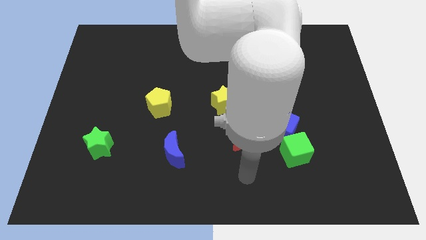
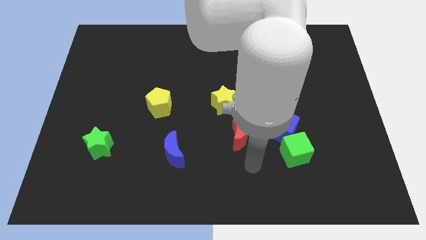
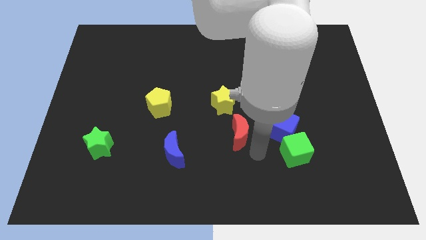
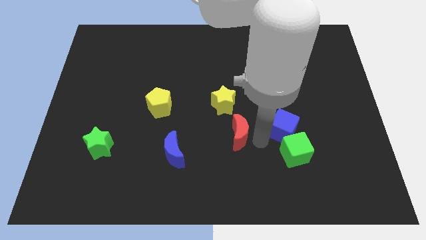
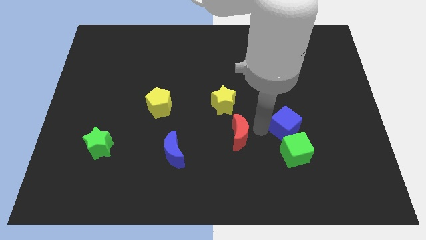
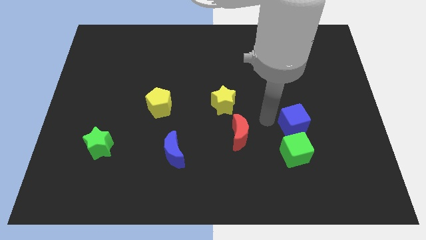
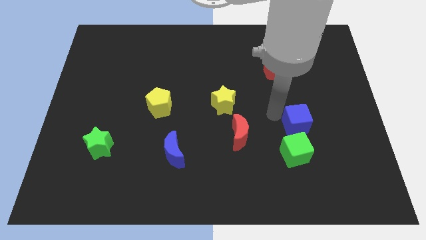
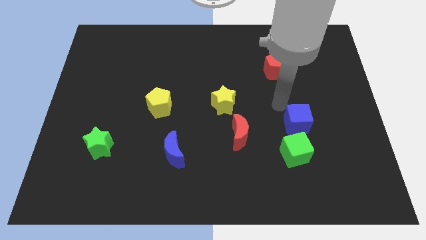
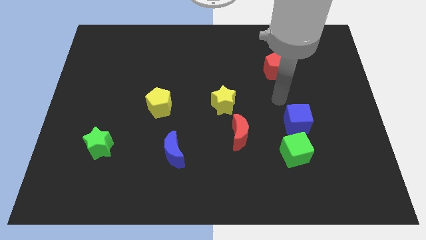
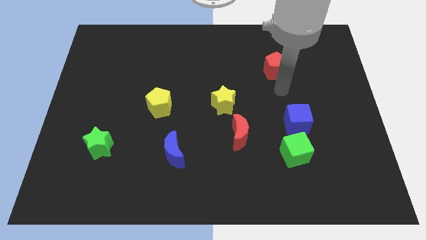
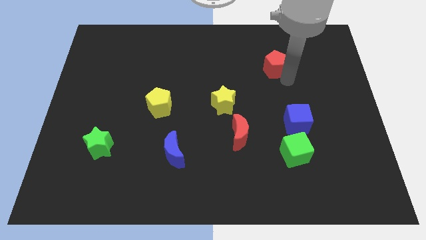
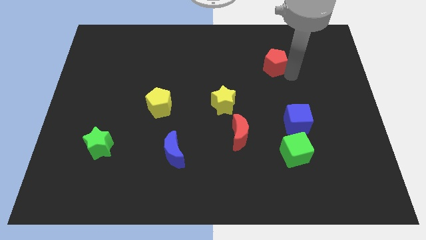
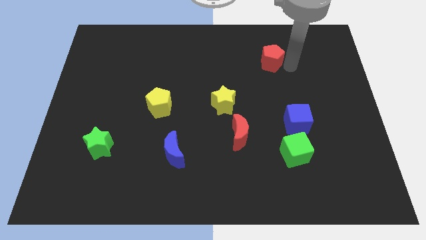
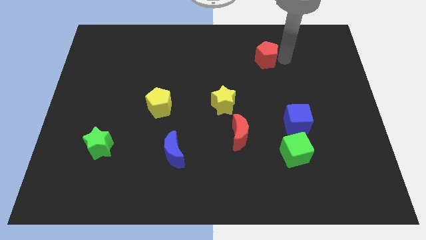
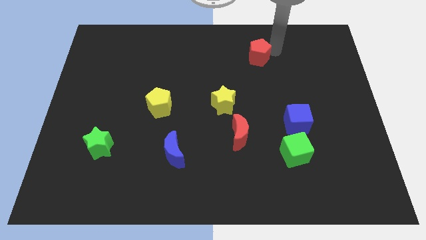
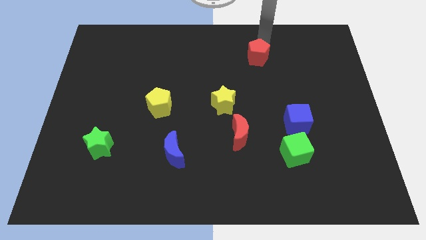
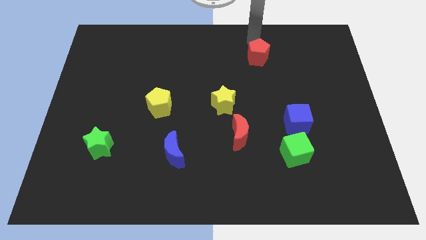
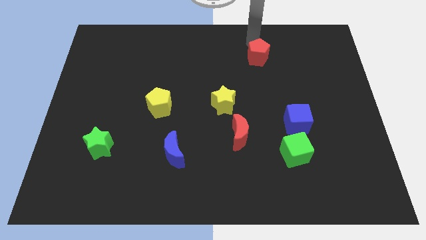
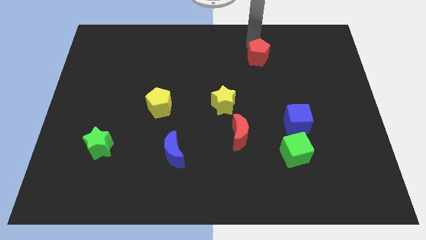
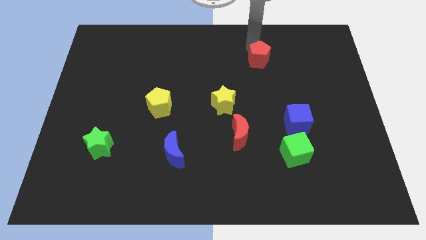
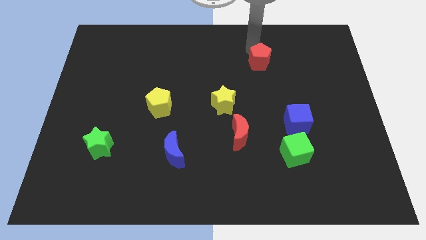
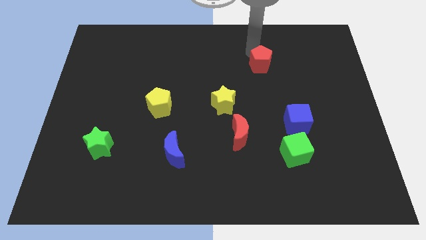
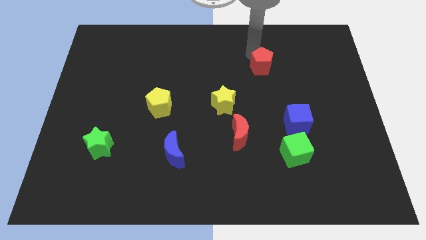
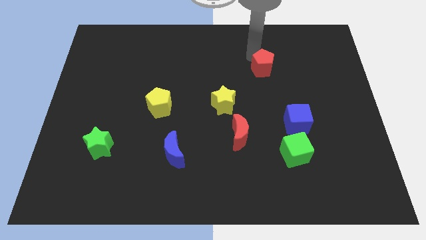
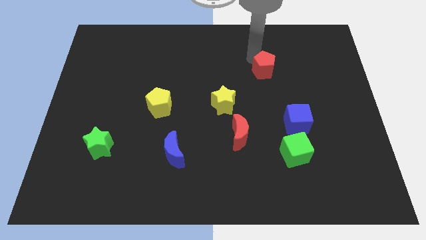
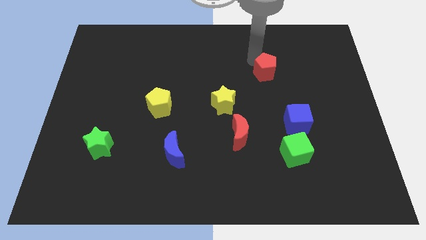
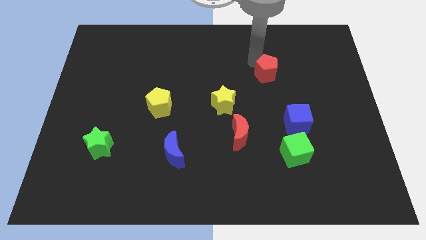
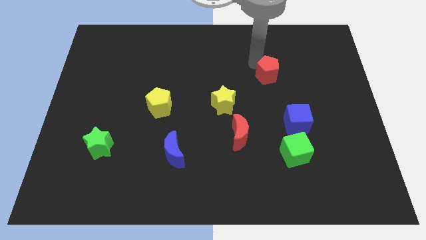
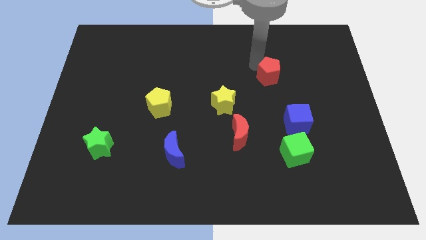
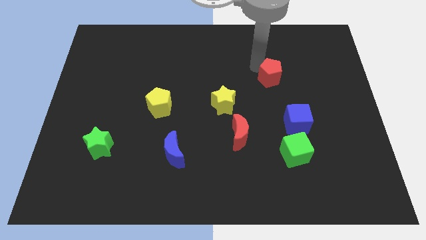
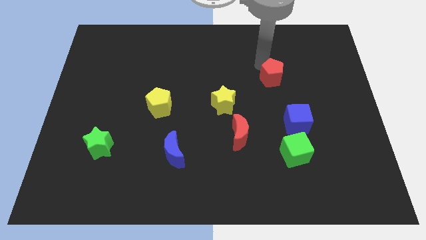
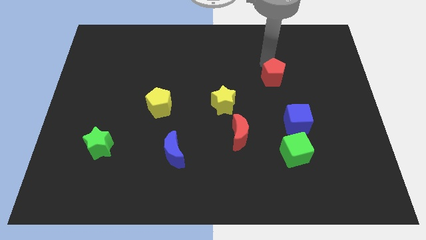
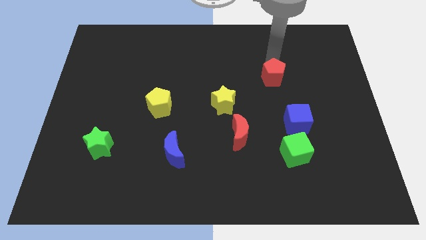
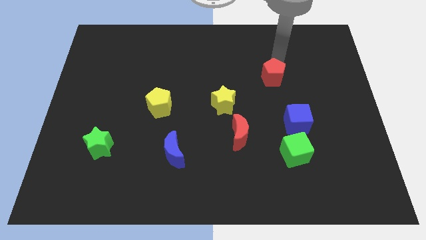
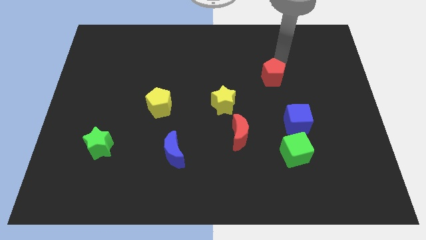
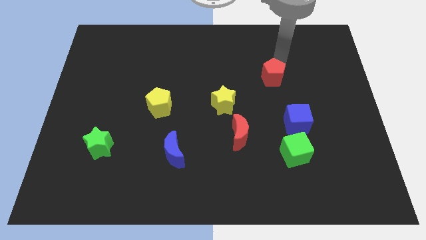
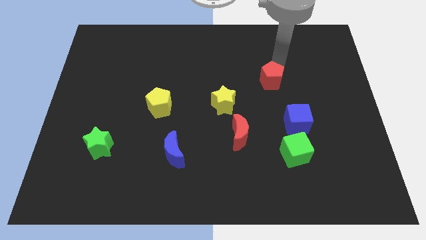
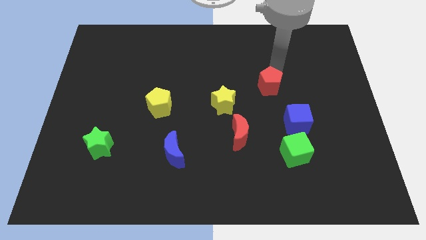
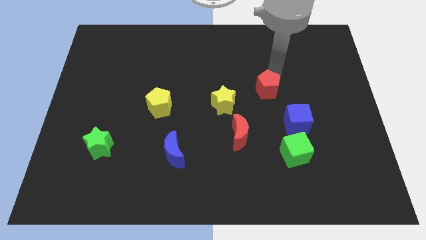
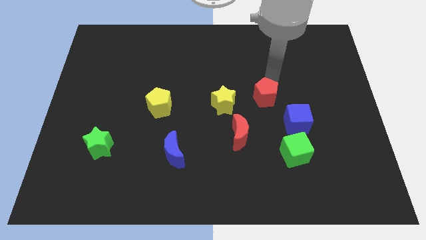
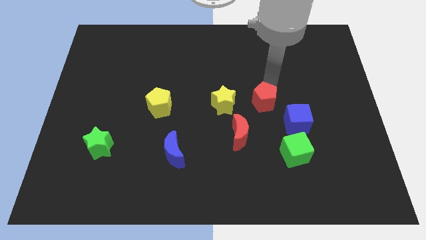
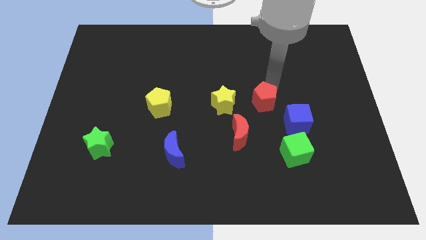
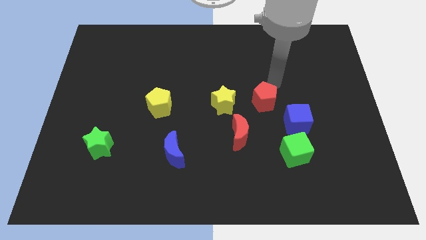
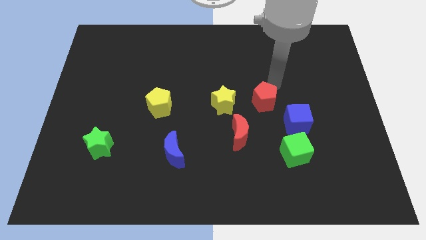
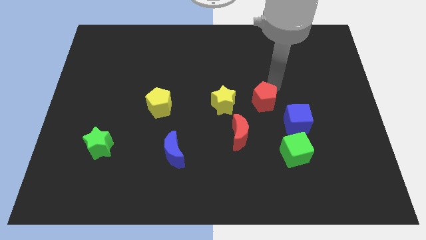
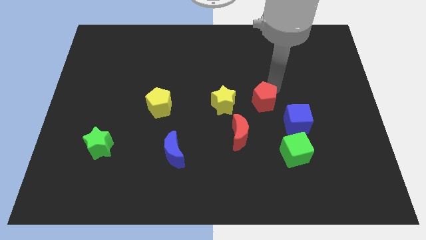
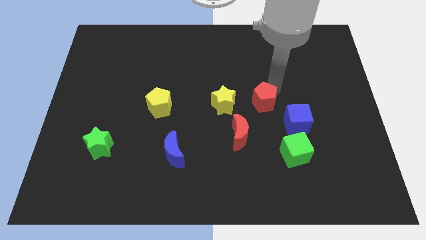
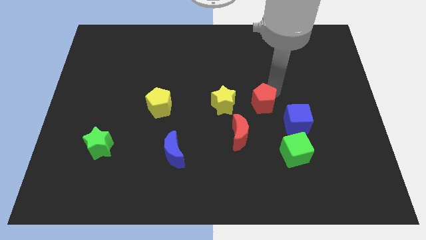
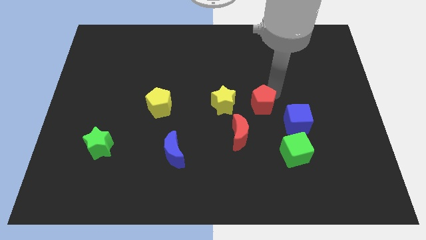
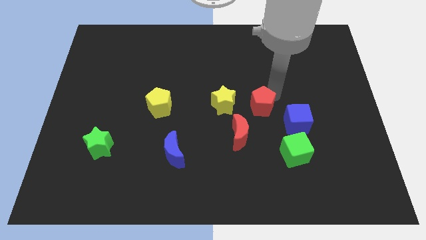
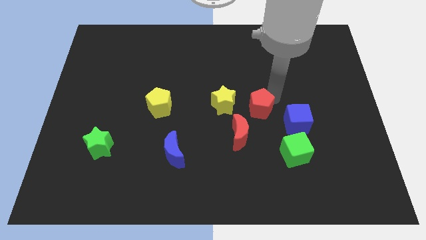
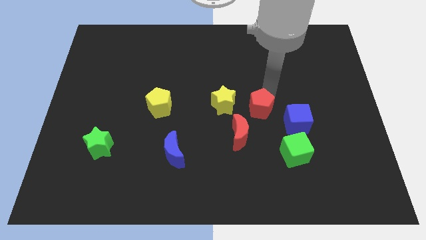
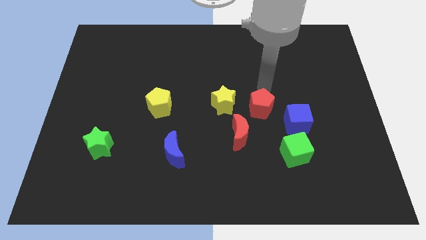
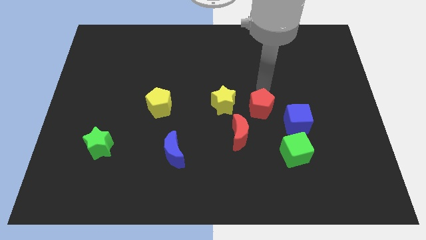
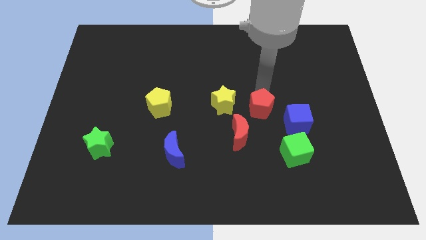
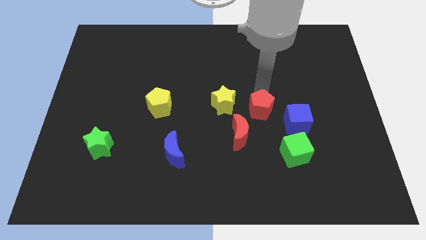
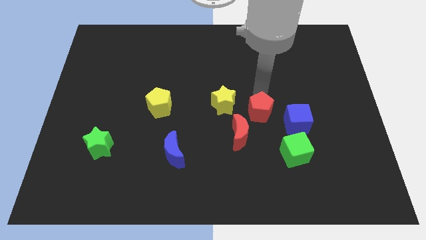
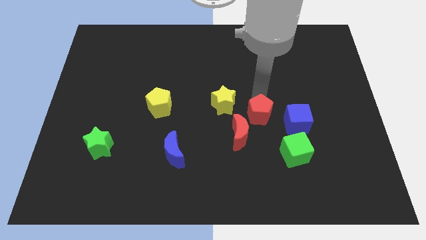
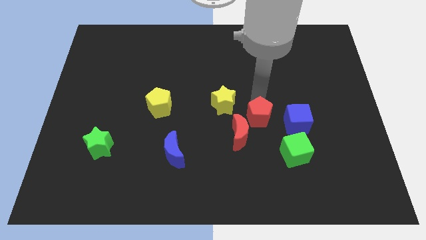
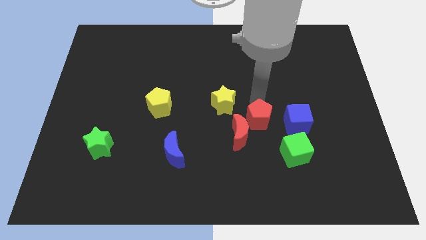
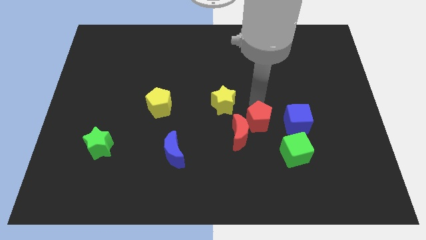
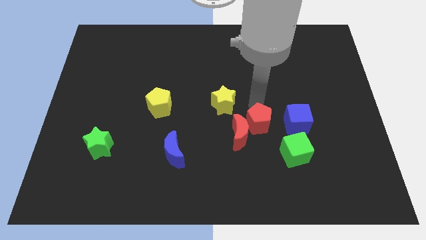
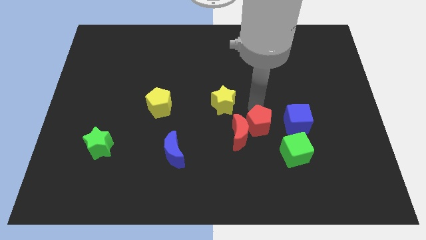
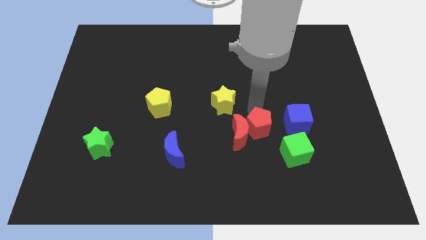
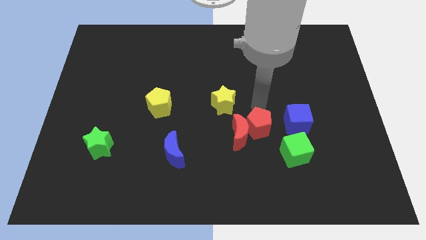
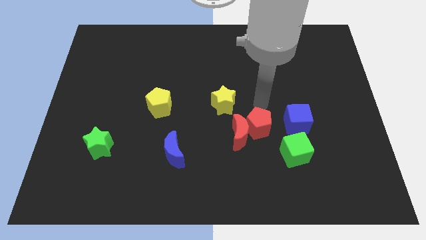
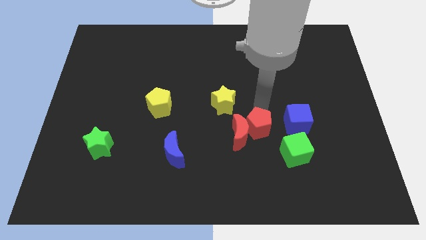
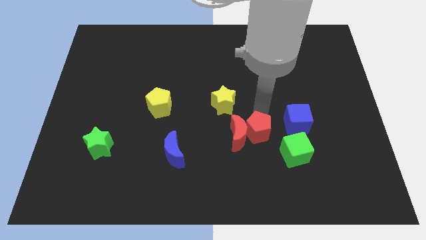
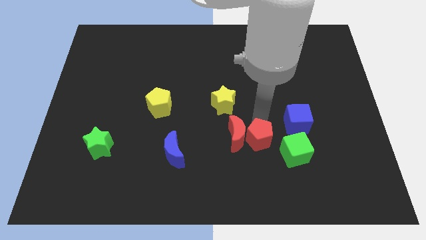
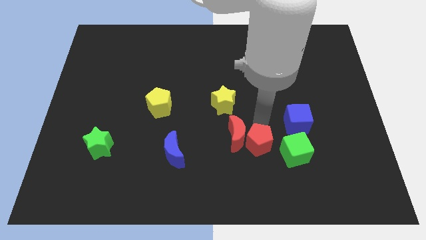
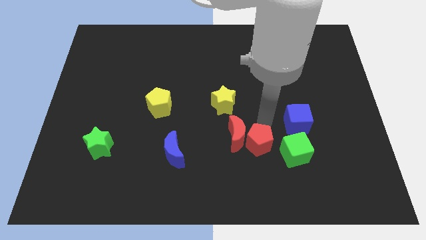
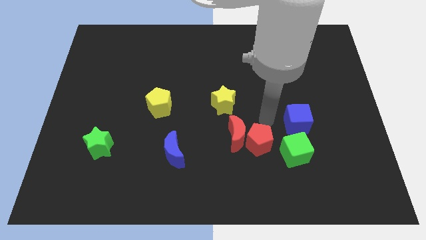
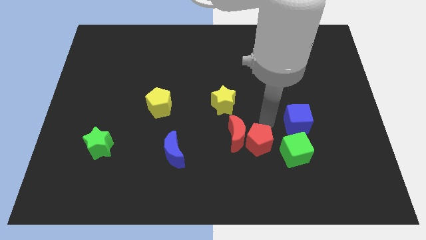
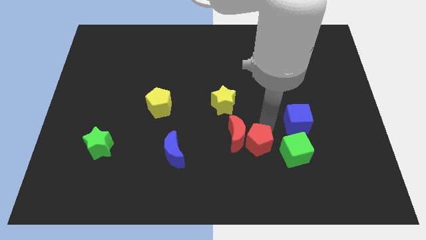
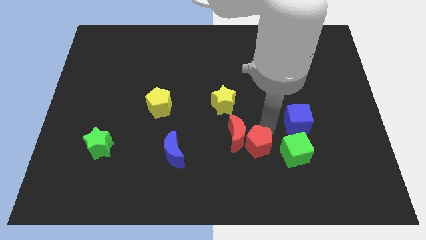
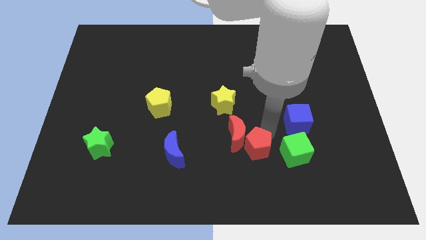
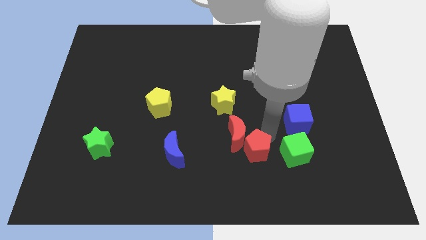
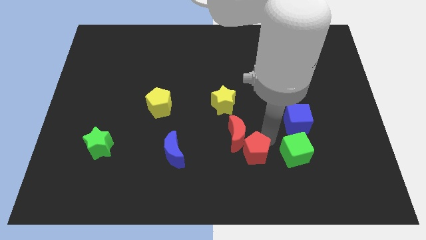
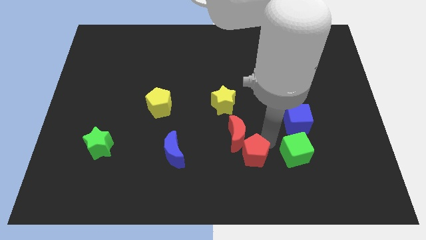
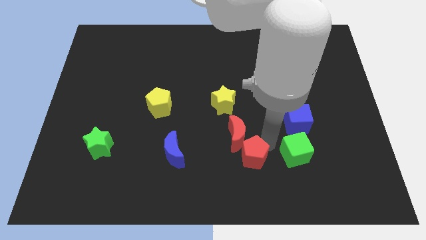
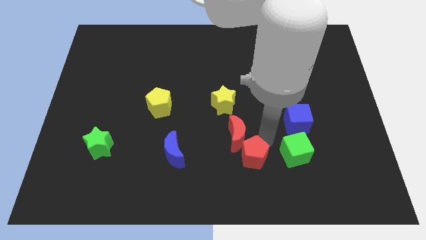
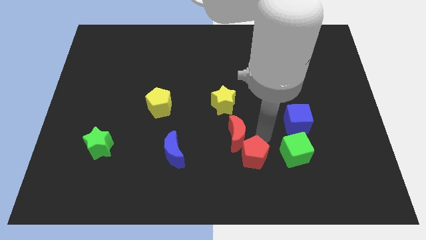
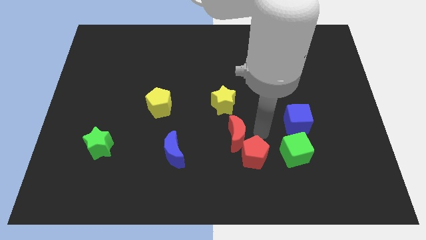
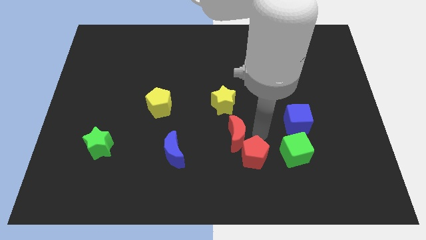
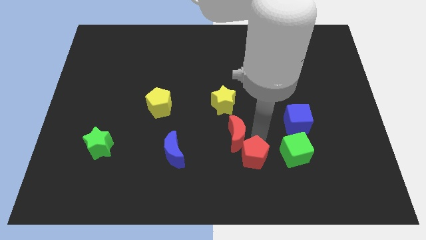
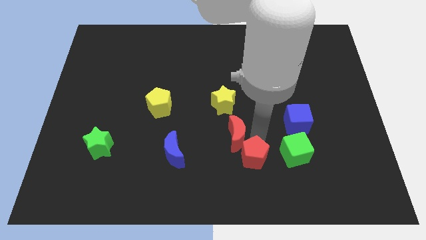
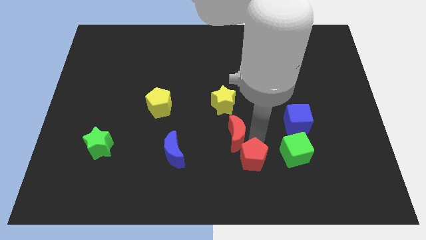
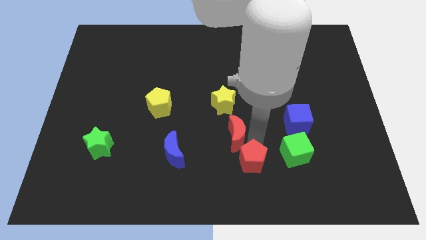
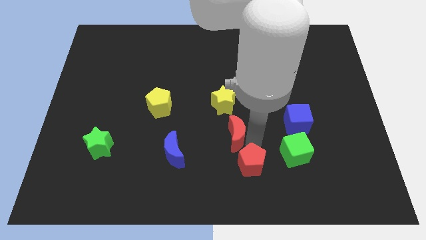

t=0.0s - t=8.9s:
put the red pentagon to the bottom
